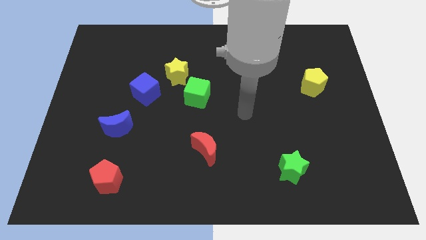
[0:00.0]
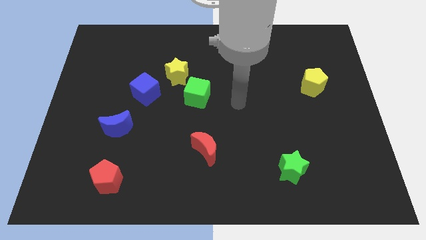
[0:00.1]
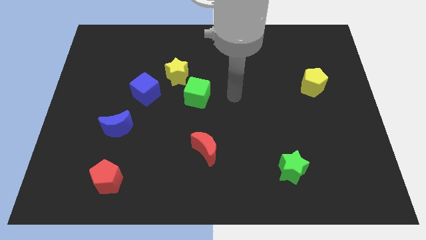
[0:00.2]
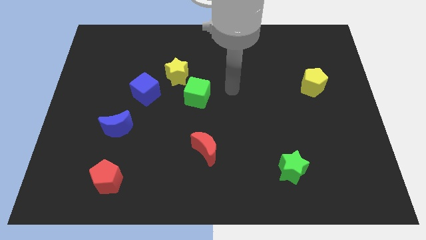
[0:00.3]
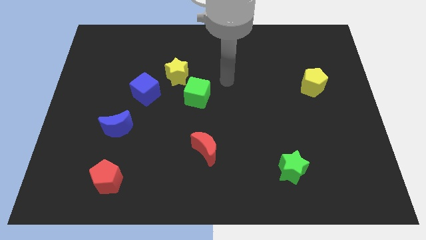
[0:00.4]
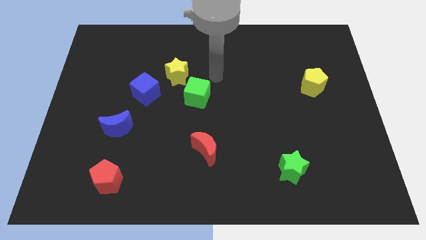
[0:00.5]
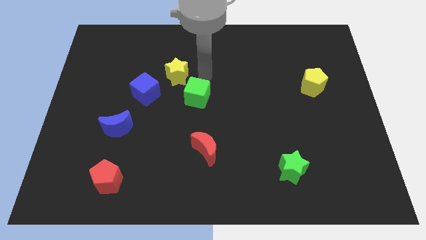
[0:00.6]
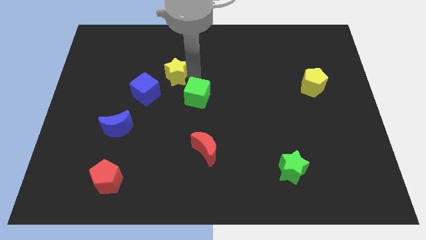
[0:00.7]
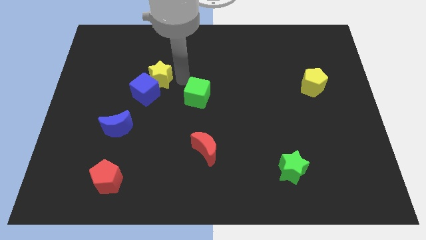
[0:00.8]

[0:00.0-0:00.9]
separate the green cube from the yellow star

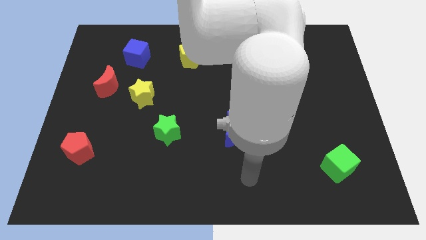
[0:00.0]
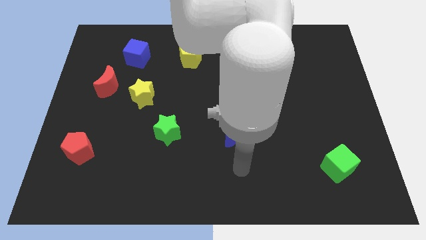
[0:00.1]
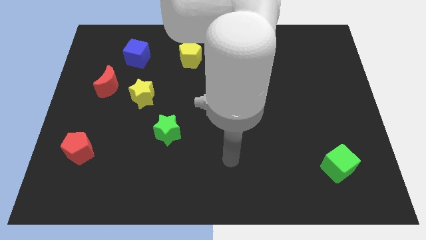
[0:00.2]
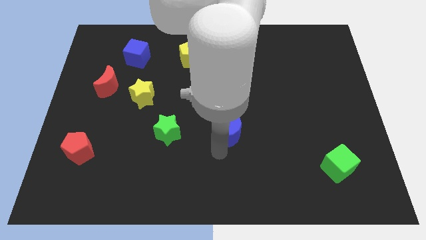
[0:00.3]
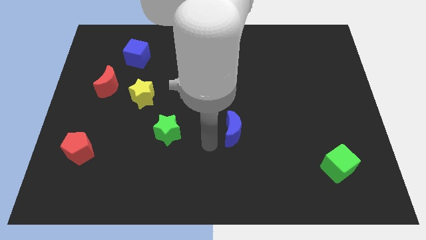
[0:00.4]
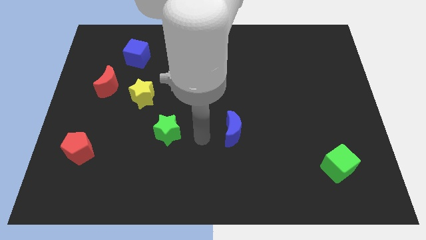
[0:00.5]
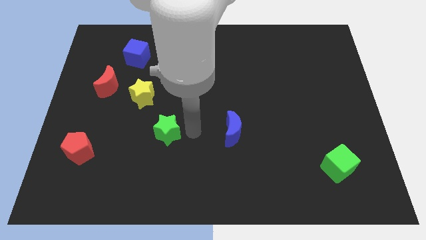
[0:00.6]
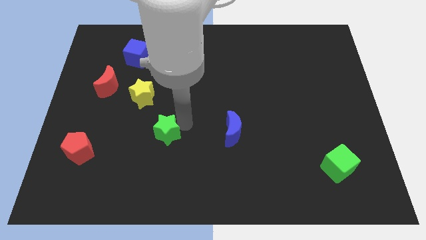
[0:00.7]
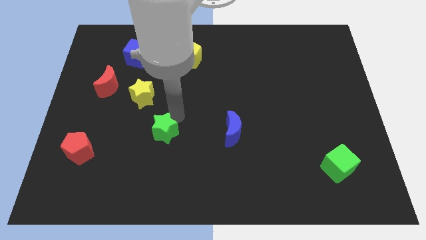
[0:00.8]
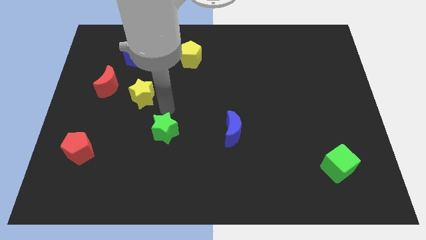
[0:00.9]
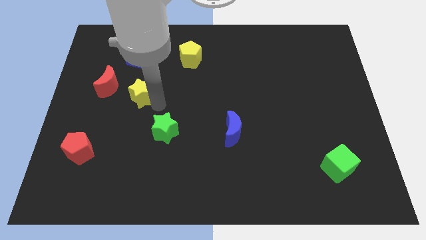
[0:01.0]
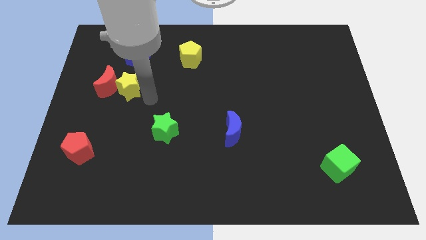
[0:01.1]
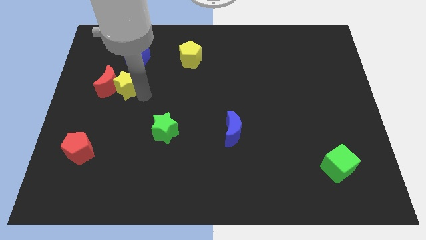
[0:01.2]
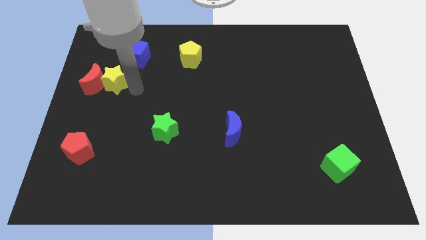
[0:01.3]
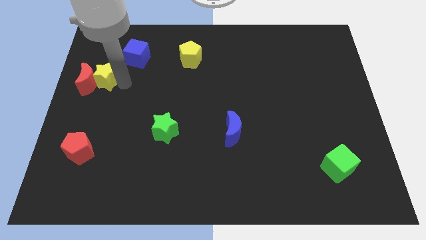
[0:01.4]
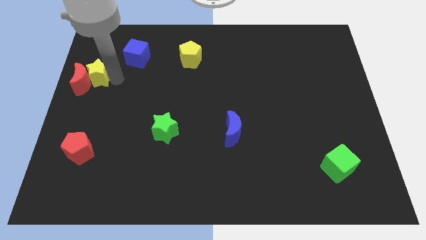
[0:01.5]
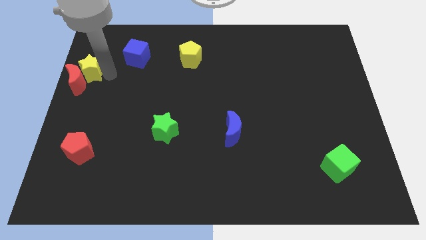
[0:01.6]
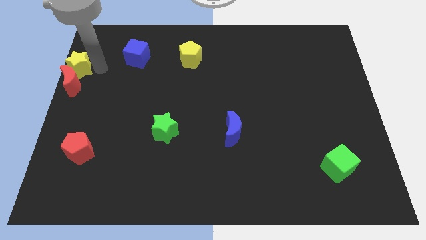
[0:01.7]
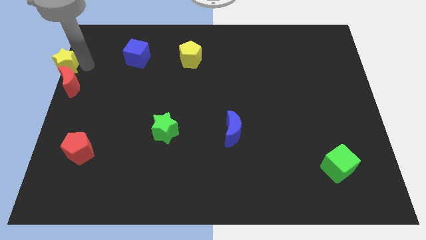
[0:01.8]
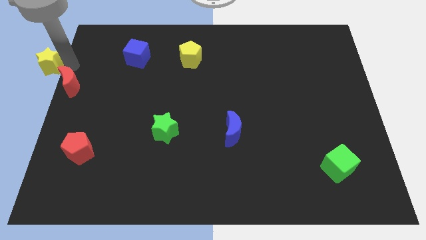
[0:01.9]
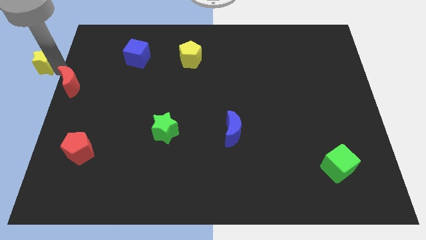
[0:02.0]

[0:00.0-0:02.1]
move the red moon away from the yellow star

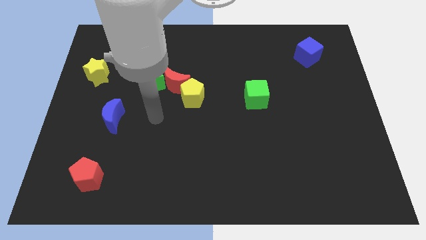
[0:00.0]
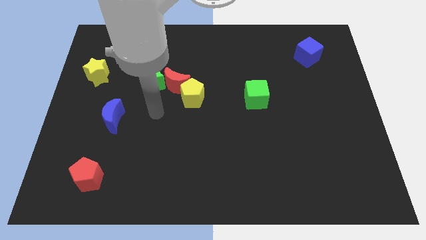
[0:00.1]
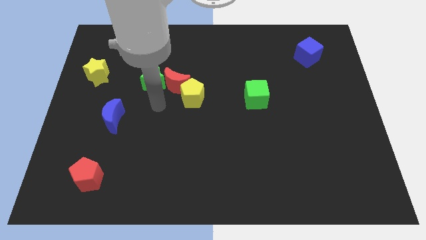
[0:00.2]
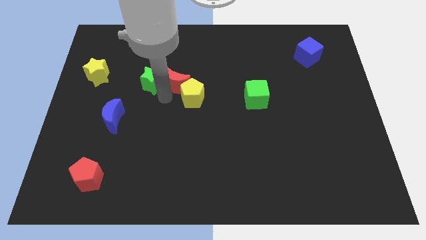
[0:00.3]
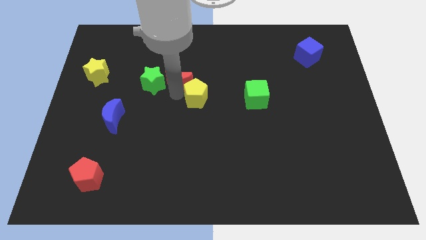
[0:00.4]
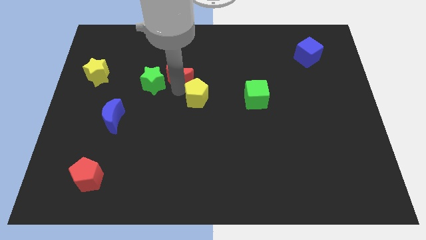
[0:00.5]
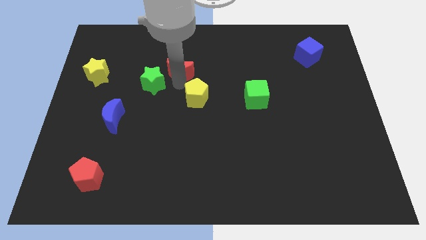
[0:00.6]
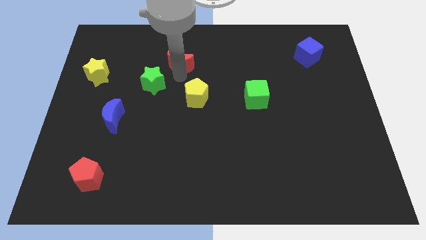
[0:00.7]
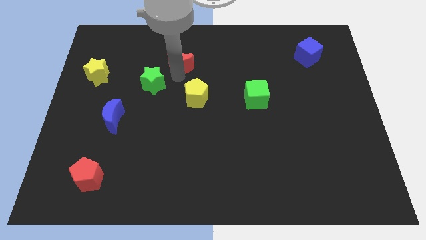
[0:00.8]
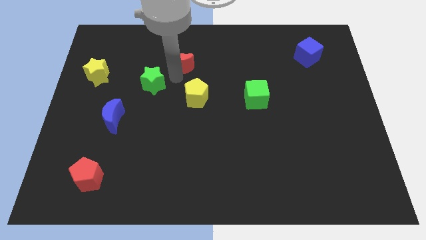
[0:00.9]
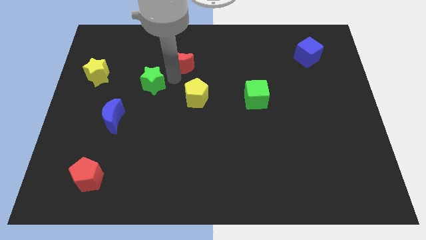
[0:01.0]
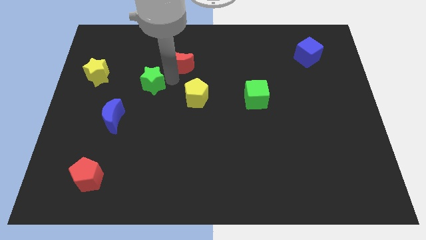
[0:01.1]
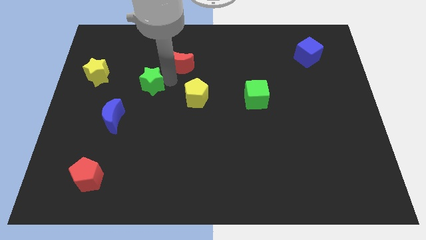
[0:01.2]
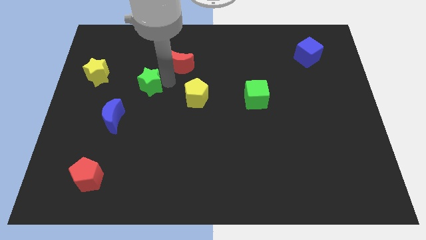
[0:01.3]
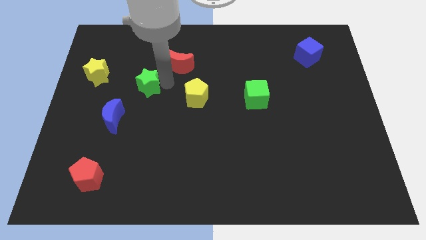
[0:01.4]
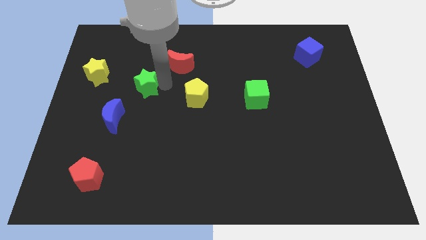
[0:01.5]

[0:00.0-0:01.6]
pull the green star apart from the red moon

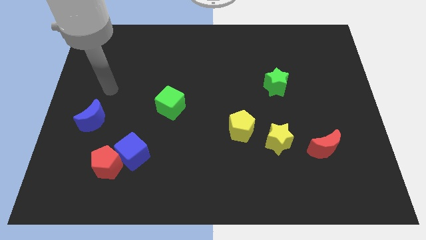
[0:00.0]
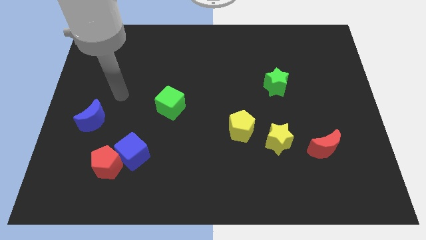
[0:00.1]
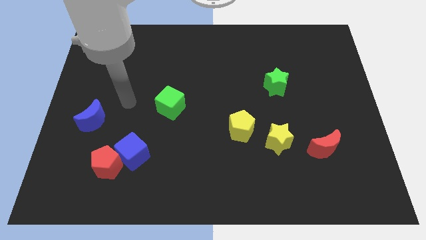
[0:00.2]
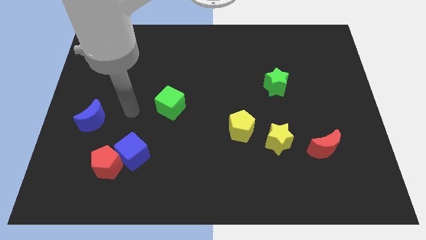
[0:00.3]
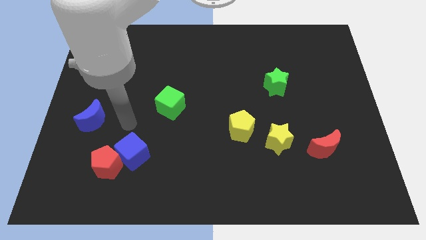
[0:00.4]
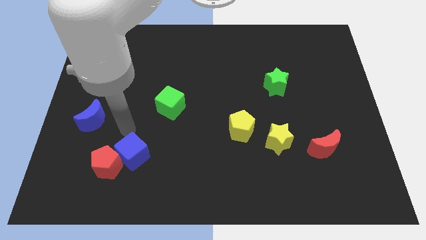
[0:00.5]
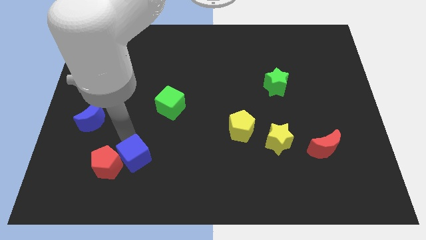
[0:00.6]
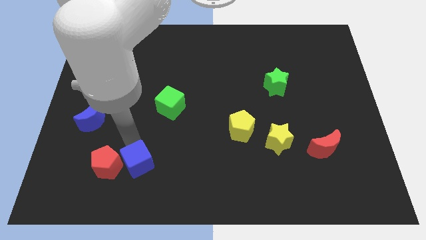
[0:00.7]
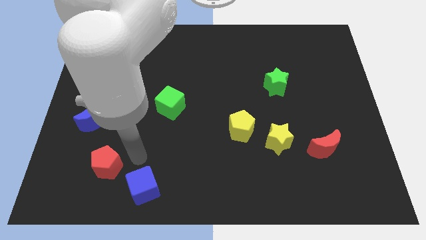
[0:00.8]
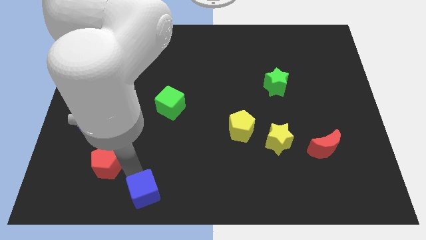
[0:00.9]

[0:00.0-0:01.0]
move the red pentagon away from the blue cube

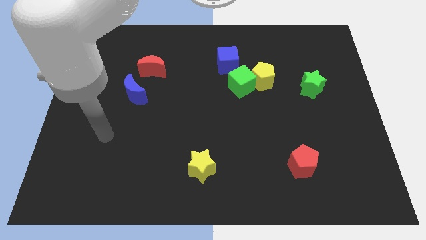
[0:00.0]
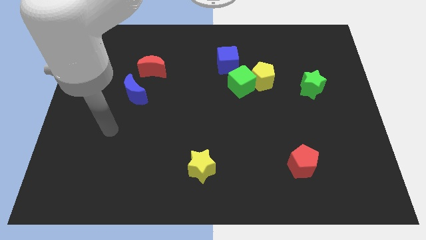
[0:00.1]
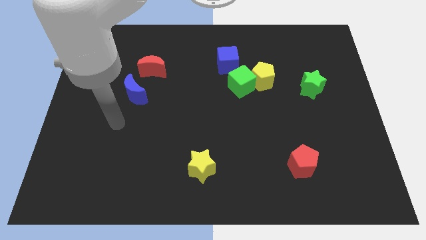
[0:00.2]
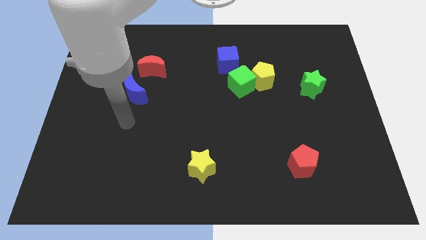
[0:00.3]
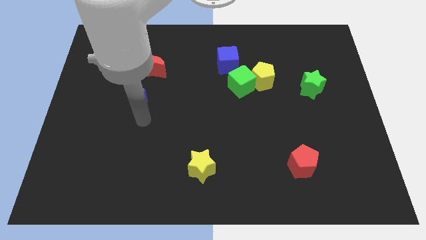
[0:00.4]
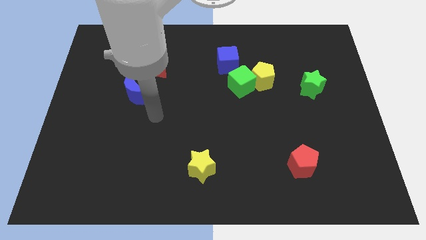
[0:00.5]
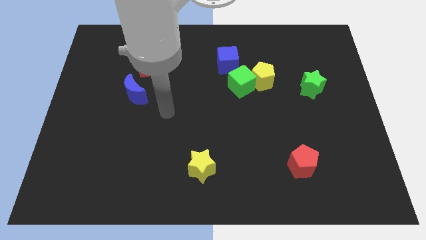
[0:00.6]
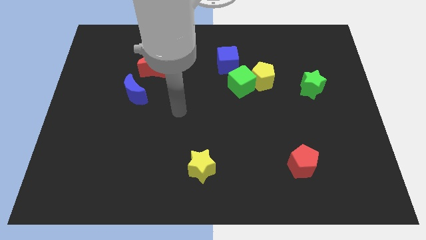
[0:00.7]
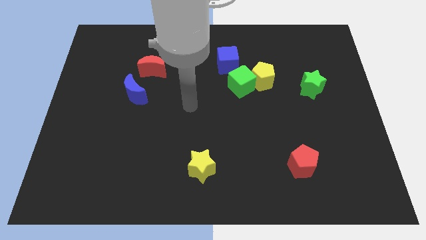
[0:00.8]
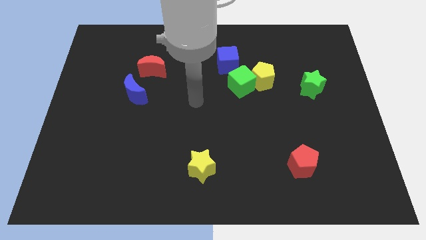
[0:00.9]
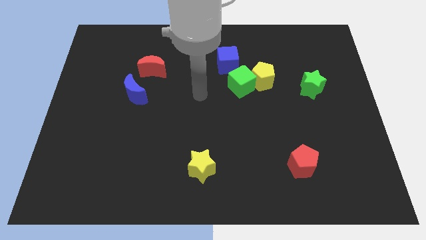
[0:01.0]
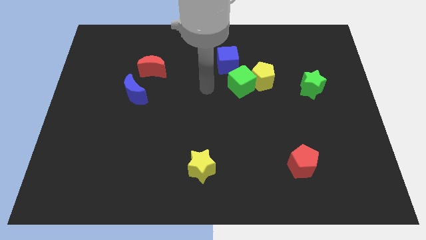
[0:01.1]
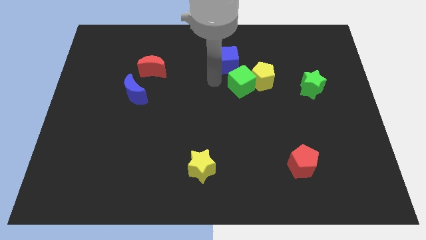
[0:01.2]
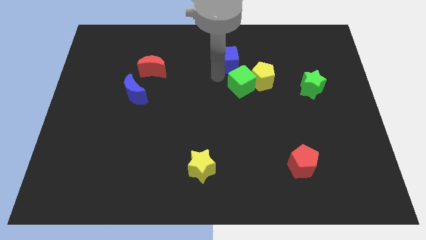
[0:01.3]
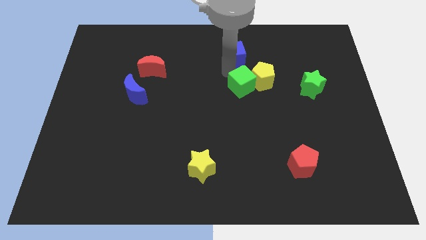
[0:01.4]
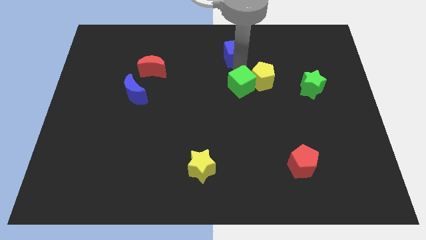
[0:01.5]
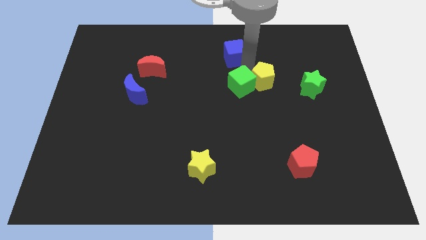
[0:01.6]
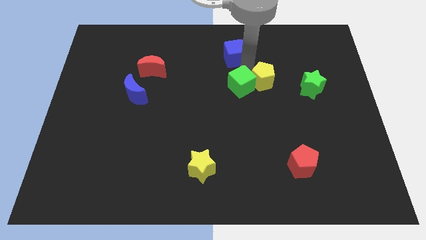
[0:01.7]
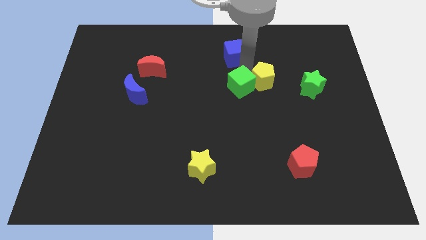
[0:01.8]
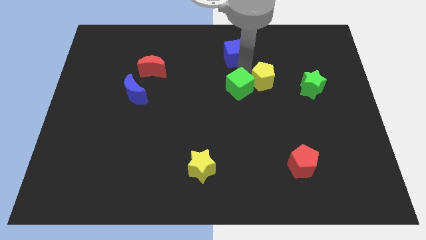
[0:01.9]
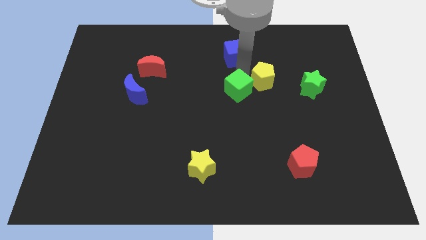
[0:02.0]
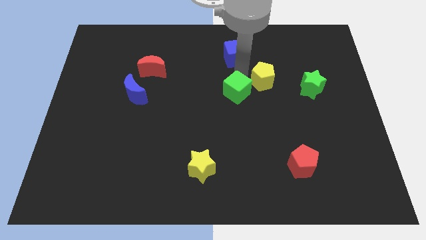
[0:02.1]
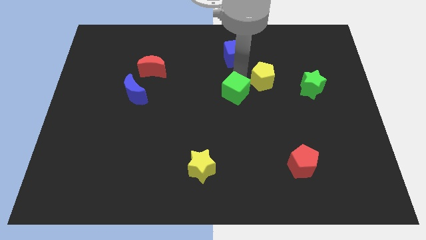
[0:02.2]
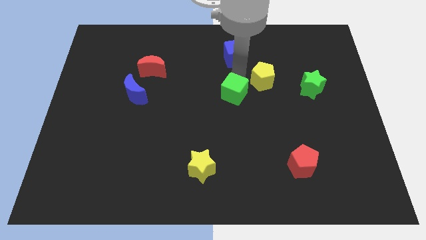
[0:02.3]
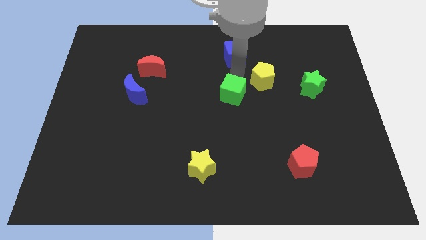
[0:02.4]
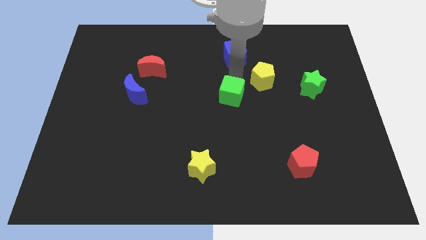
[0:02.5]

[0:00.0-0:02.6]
move the green cube away from the yellow pentagon and blue cube

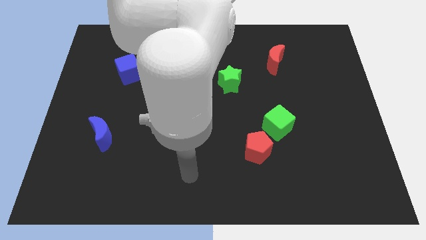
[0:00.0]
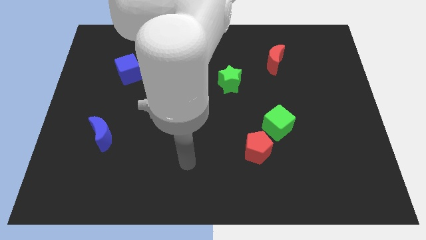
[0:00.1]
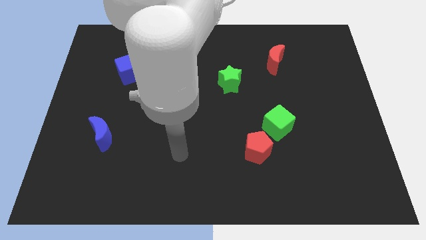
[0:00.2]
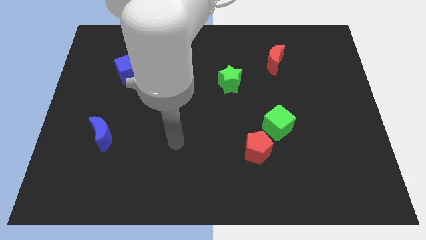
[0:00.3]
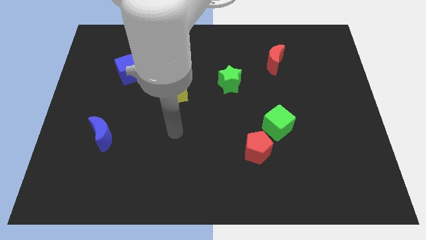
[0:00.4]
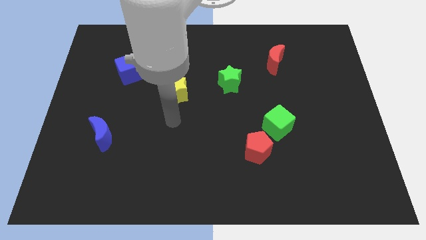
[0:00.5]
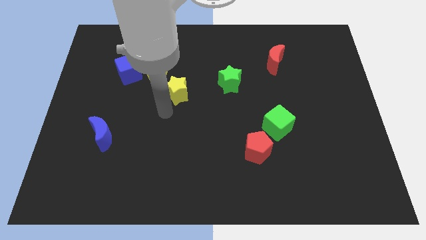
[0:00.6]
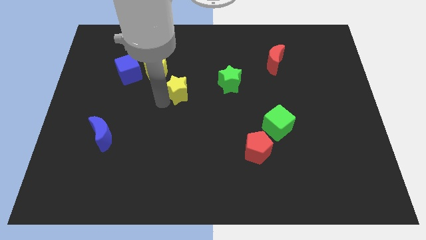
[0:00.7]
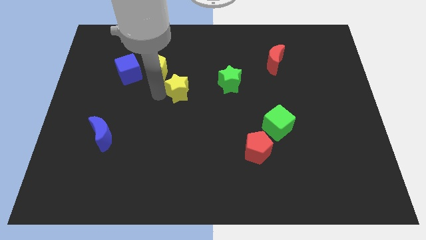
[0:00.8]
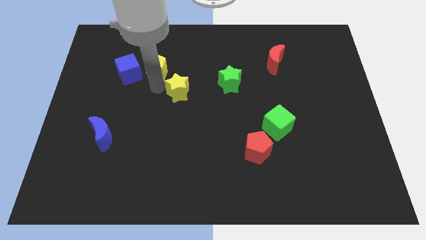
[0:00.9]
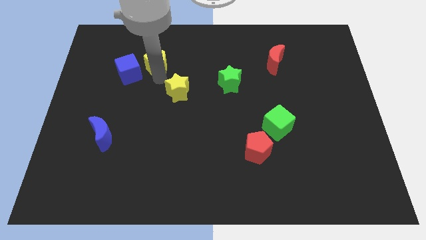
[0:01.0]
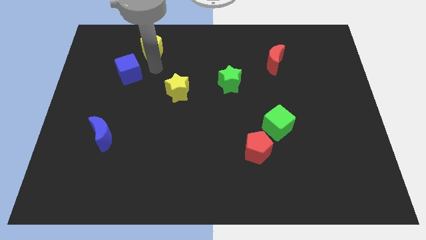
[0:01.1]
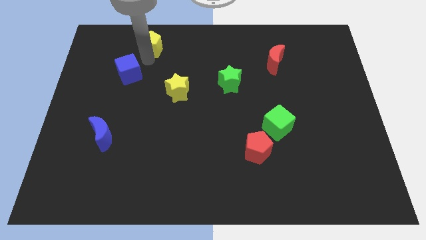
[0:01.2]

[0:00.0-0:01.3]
separate the blue cube from the yellow pentagon
